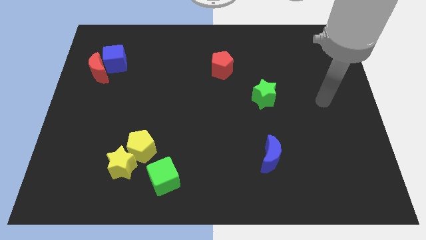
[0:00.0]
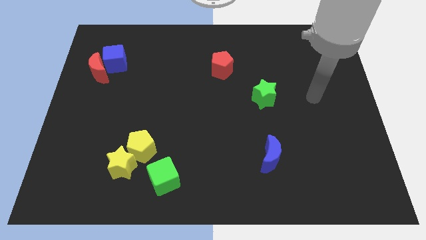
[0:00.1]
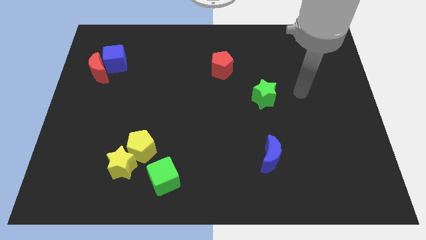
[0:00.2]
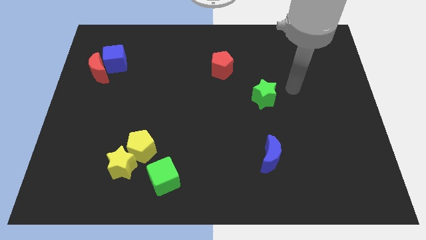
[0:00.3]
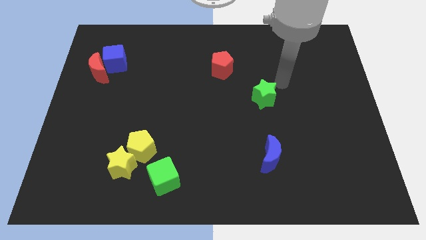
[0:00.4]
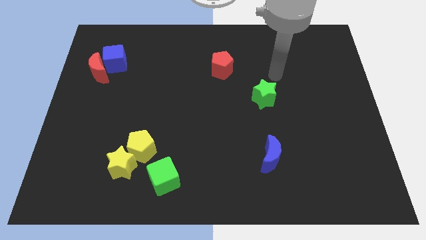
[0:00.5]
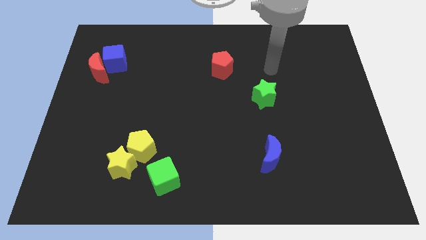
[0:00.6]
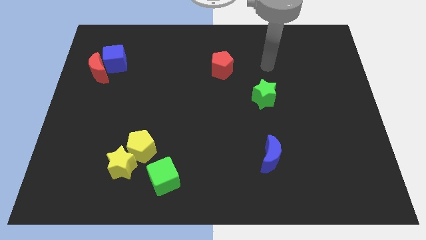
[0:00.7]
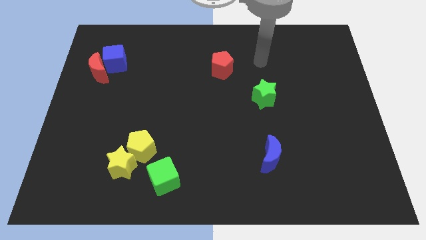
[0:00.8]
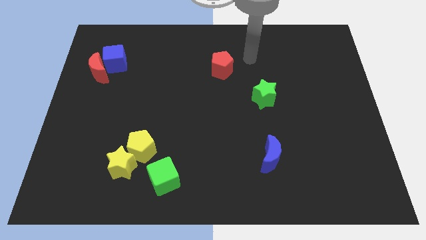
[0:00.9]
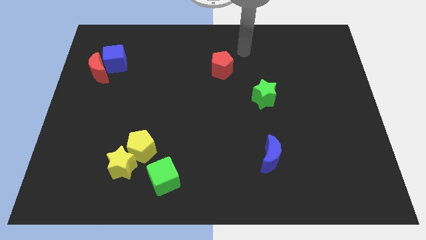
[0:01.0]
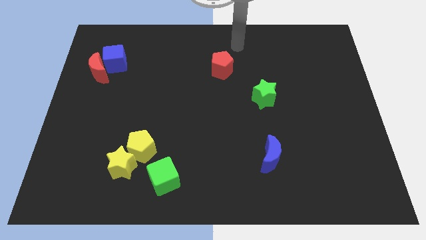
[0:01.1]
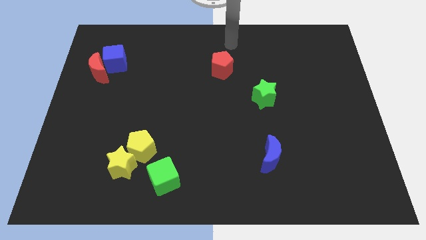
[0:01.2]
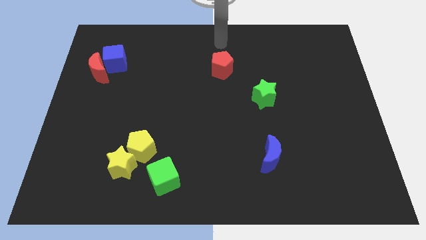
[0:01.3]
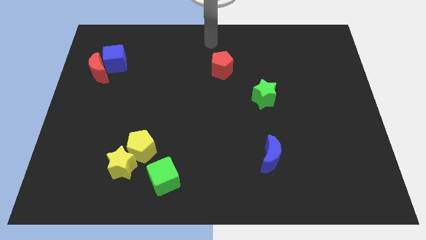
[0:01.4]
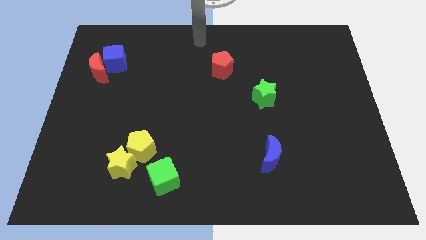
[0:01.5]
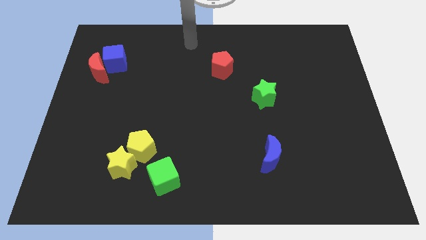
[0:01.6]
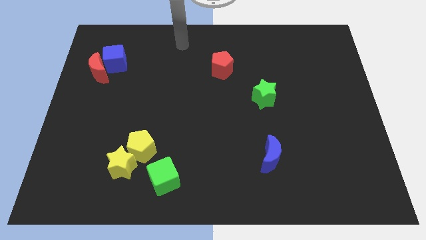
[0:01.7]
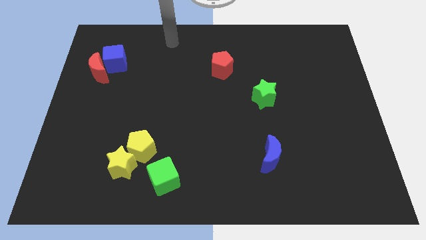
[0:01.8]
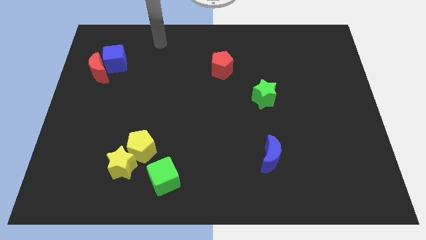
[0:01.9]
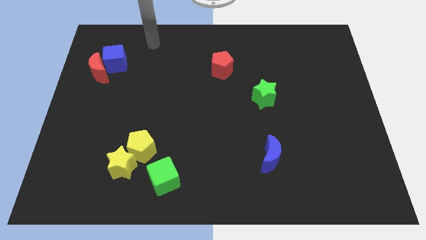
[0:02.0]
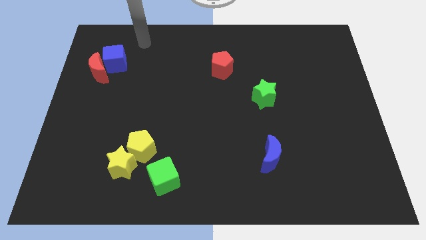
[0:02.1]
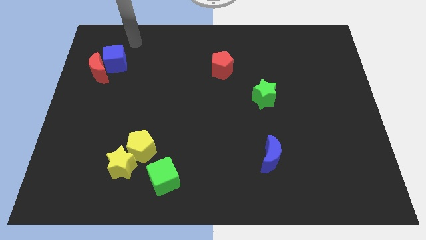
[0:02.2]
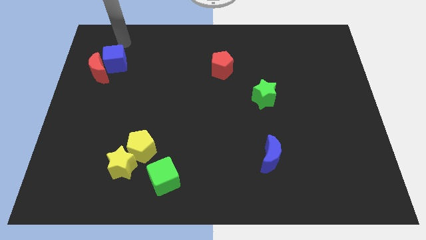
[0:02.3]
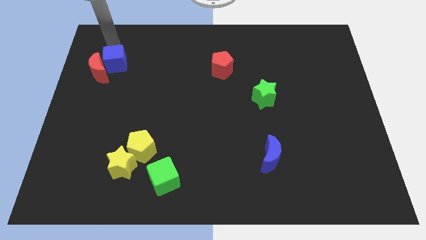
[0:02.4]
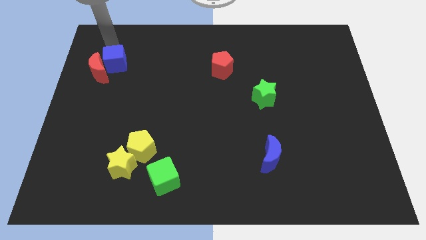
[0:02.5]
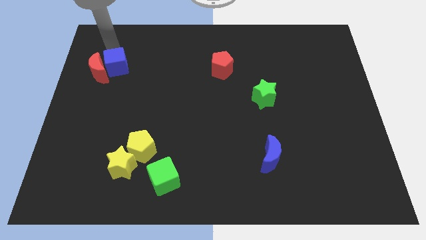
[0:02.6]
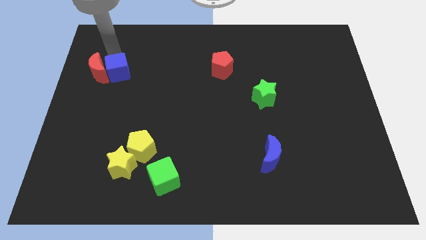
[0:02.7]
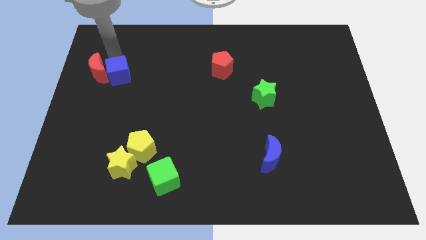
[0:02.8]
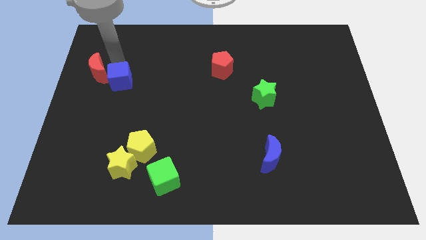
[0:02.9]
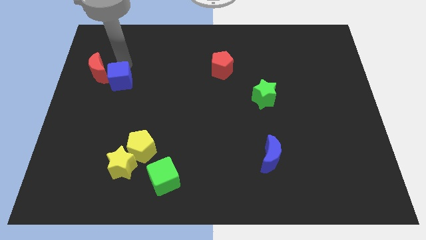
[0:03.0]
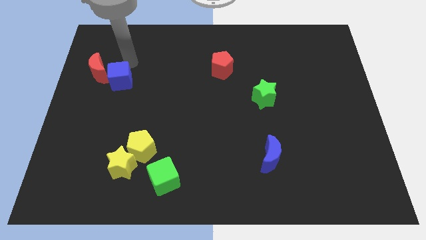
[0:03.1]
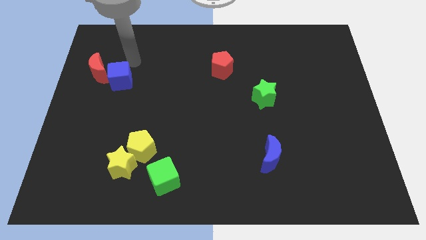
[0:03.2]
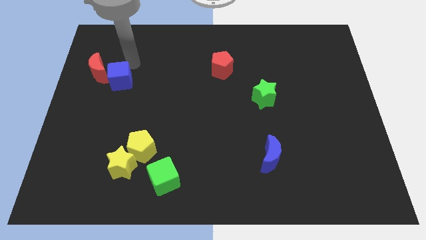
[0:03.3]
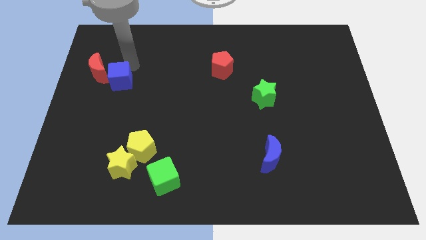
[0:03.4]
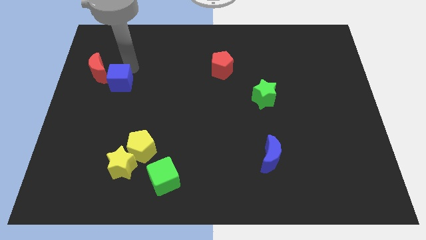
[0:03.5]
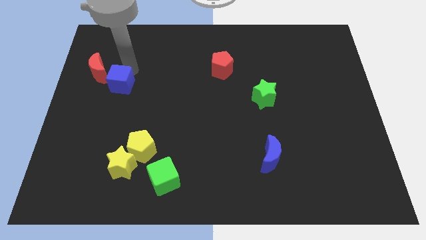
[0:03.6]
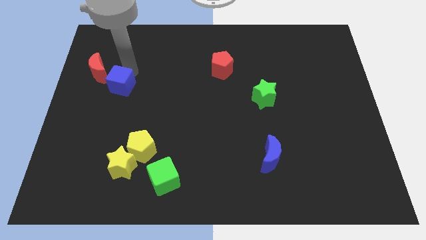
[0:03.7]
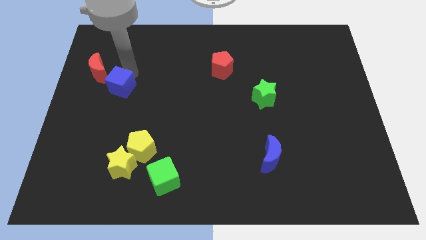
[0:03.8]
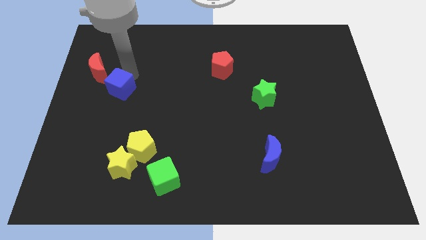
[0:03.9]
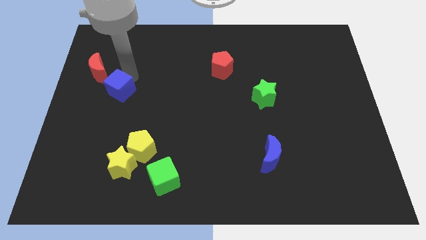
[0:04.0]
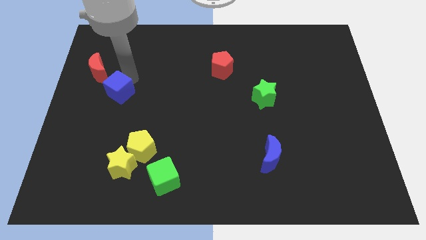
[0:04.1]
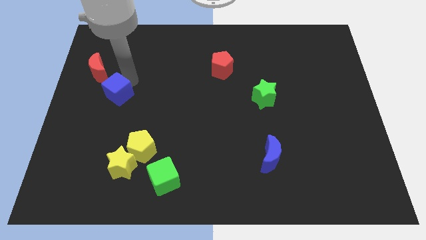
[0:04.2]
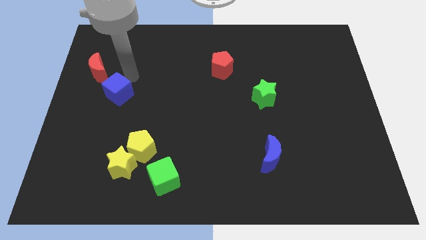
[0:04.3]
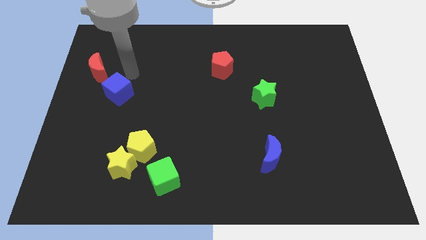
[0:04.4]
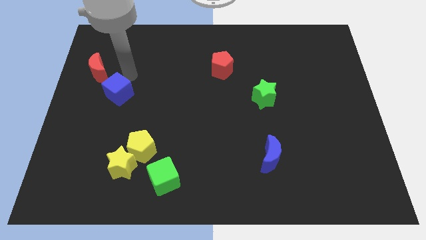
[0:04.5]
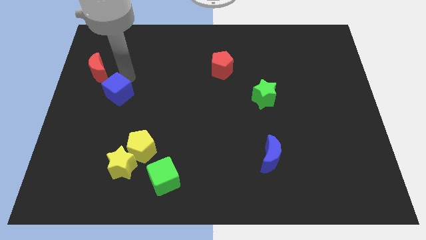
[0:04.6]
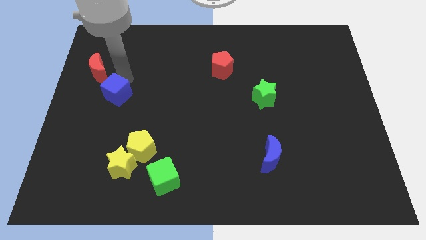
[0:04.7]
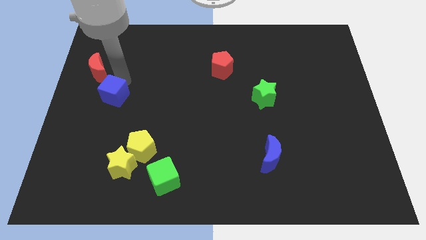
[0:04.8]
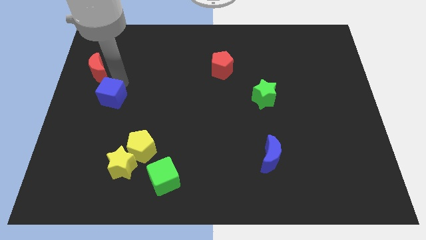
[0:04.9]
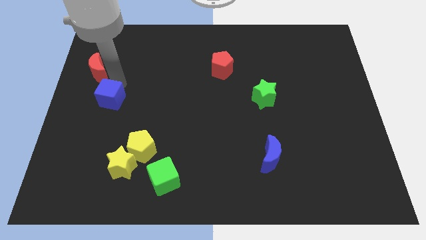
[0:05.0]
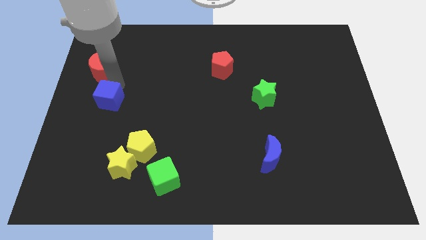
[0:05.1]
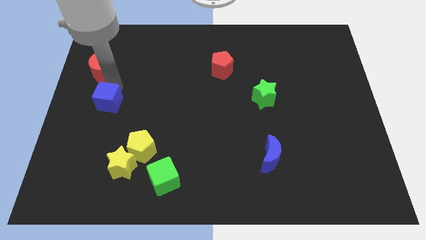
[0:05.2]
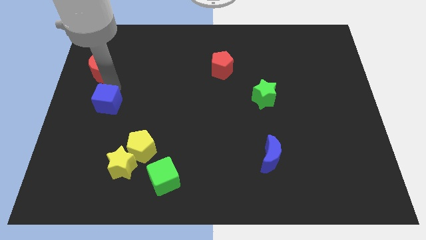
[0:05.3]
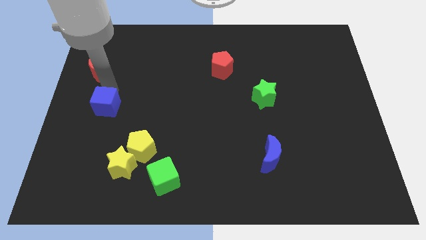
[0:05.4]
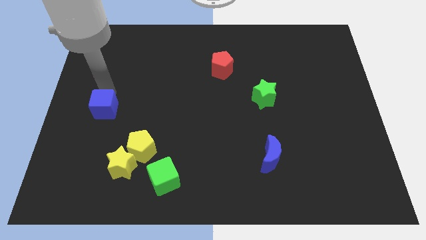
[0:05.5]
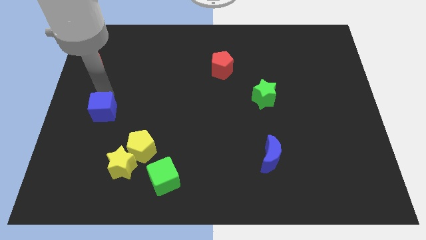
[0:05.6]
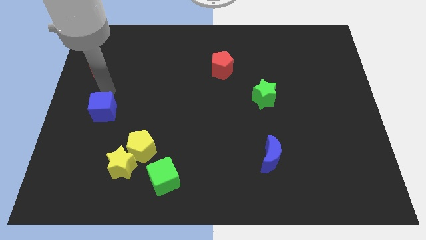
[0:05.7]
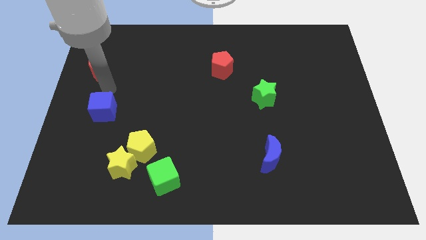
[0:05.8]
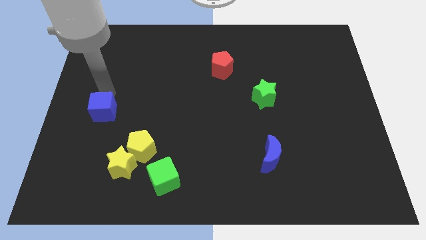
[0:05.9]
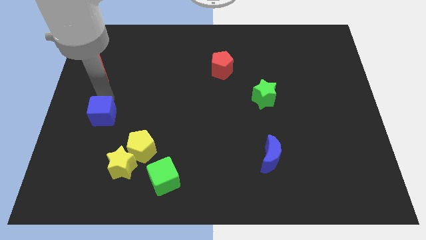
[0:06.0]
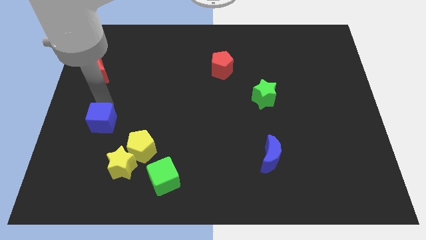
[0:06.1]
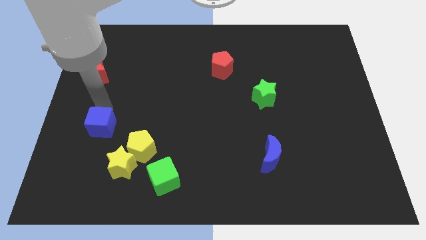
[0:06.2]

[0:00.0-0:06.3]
slide the blue cube down

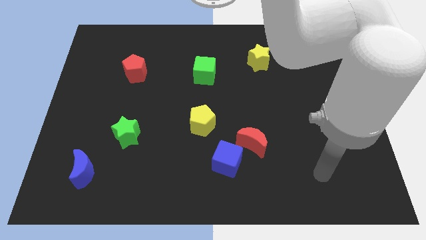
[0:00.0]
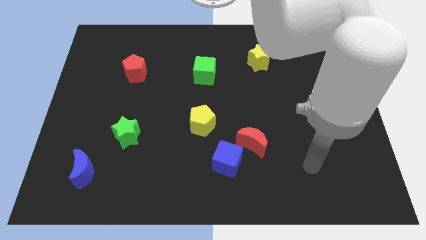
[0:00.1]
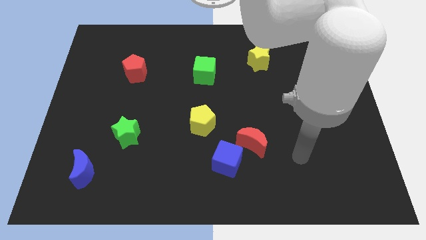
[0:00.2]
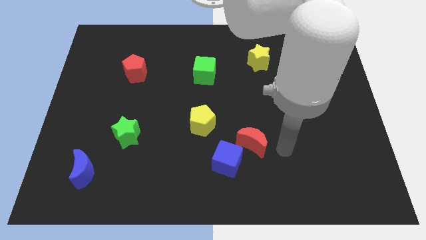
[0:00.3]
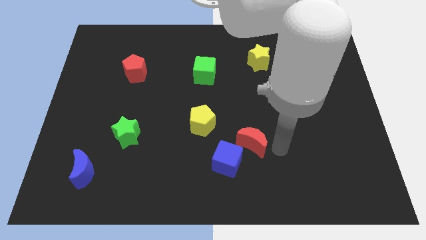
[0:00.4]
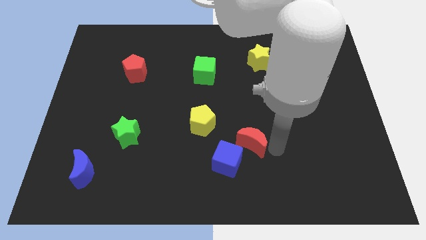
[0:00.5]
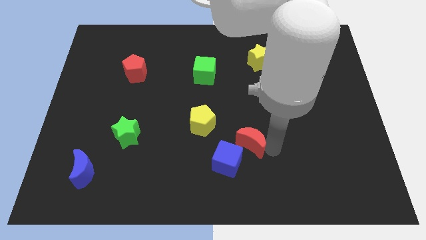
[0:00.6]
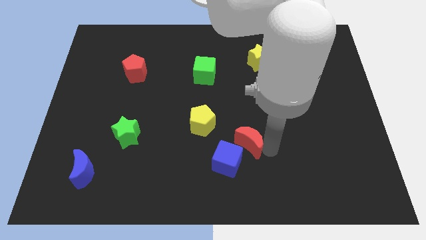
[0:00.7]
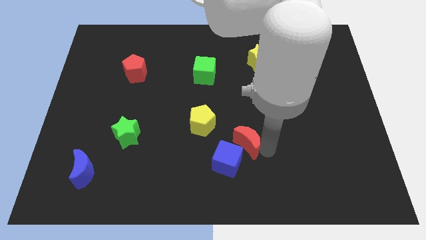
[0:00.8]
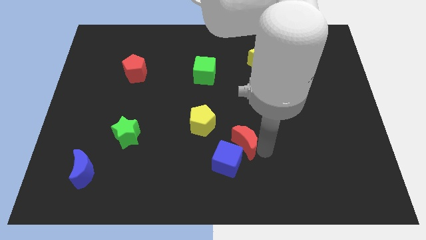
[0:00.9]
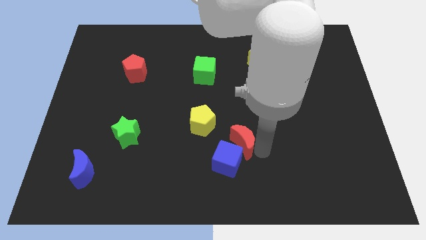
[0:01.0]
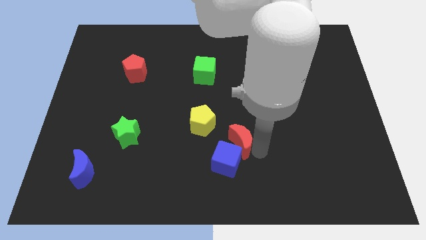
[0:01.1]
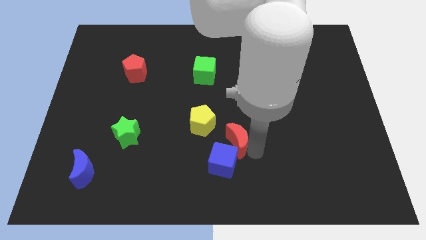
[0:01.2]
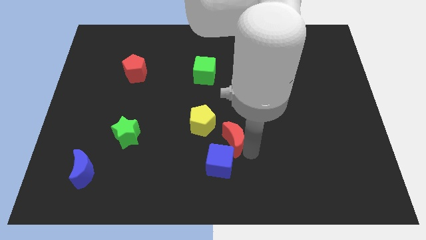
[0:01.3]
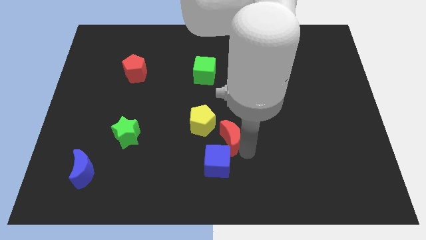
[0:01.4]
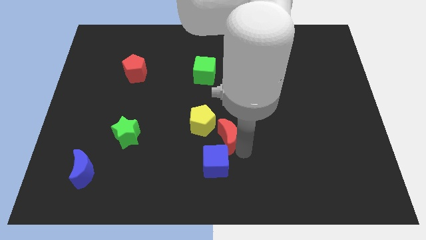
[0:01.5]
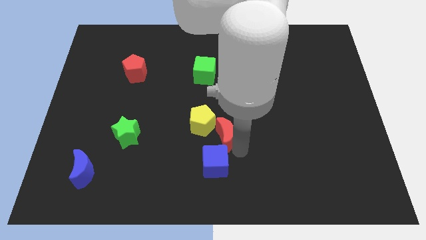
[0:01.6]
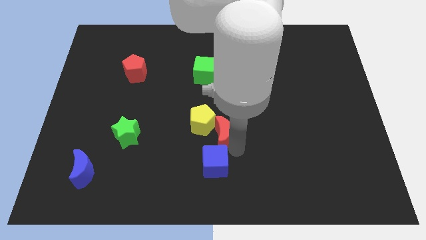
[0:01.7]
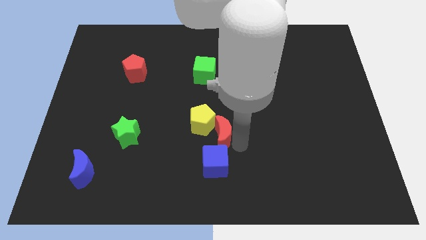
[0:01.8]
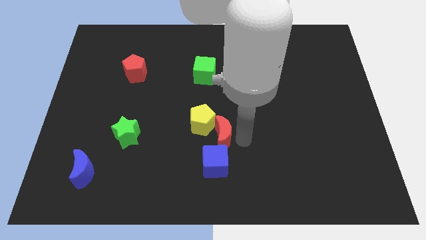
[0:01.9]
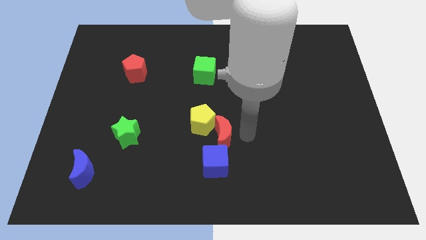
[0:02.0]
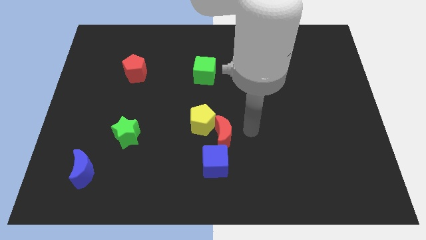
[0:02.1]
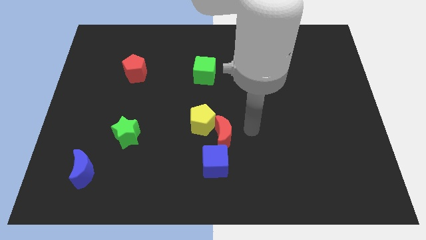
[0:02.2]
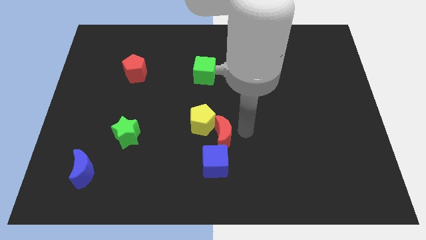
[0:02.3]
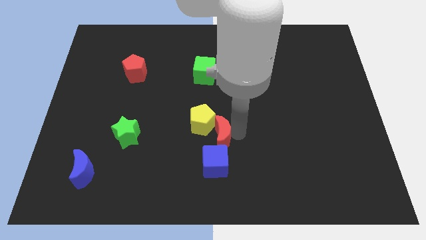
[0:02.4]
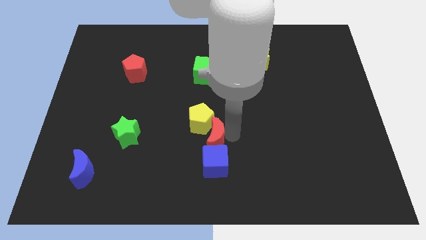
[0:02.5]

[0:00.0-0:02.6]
slightly push the red moon to the left
